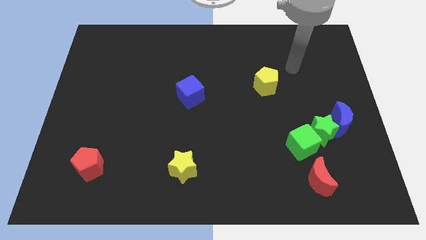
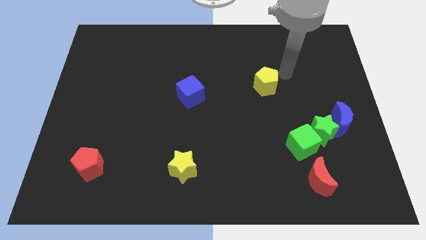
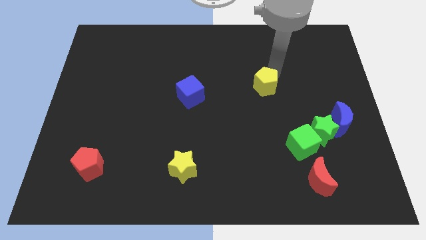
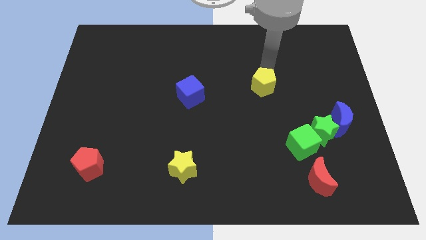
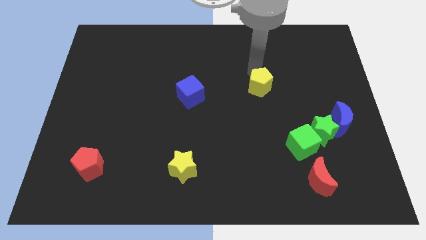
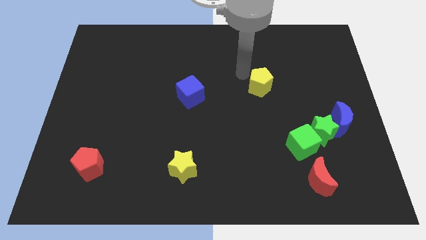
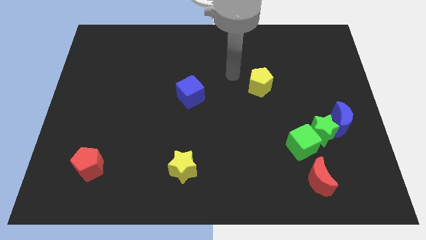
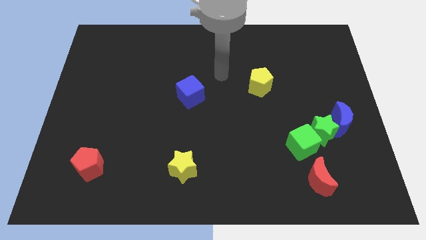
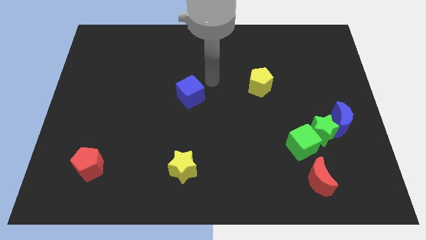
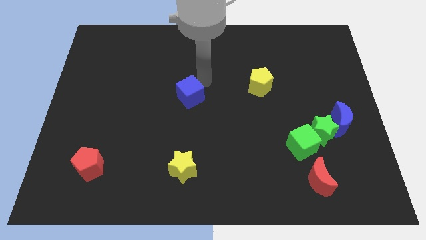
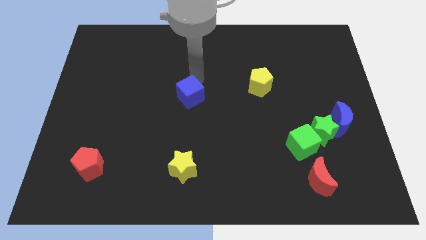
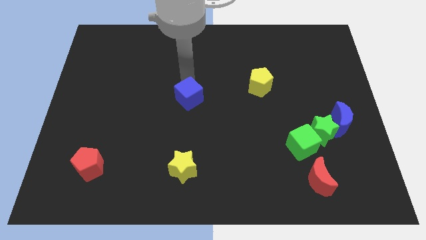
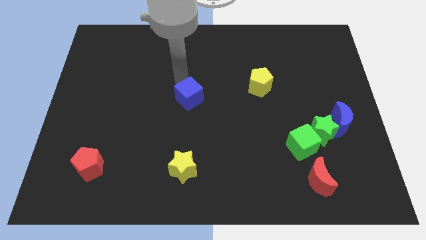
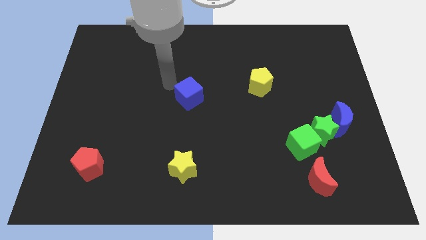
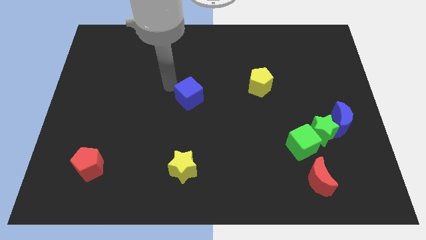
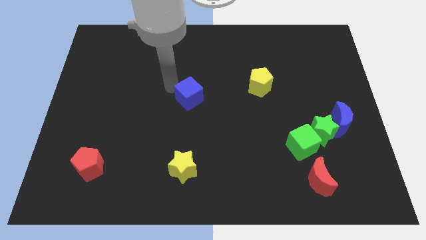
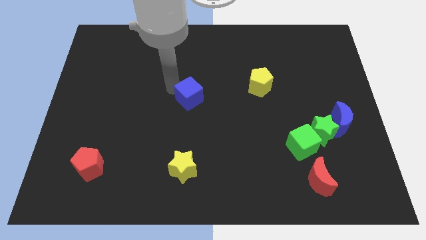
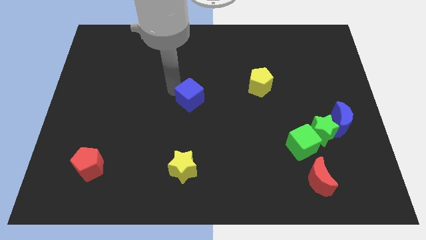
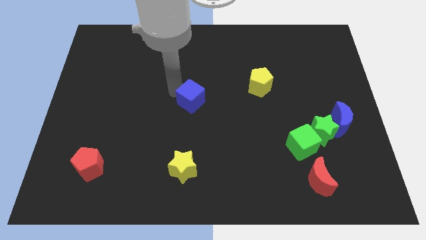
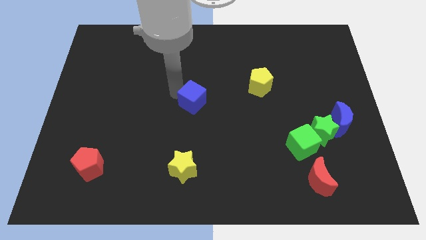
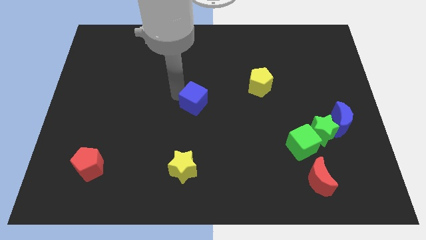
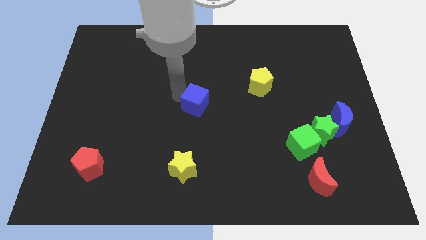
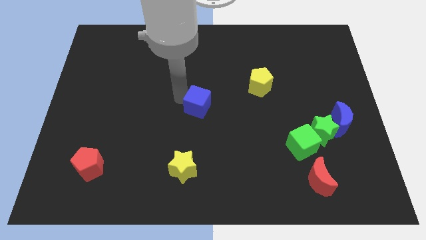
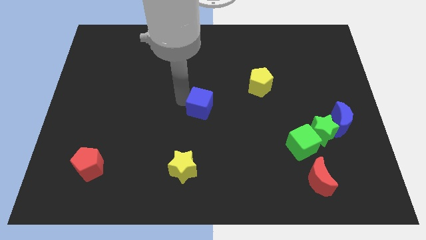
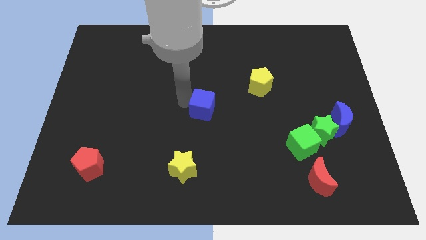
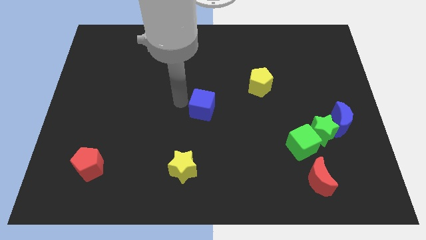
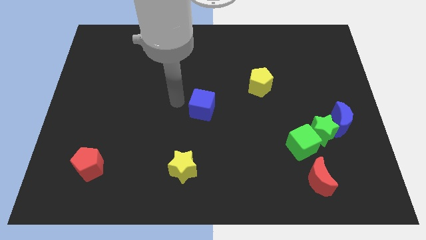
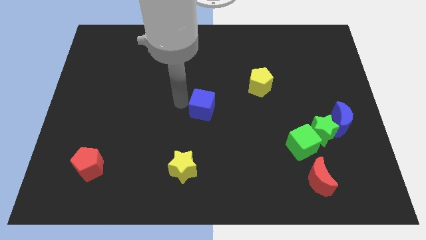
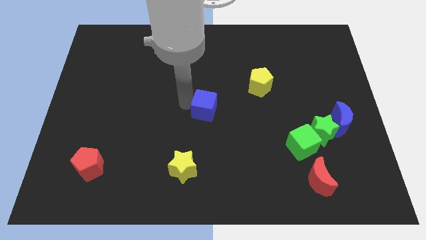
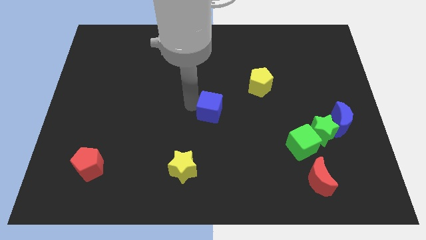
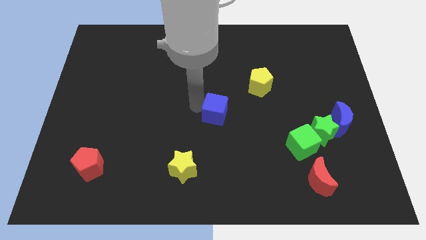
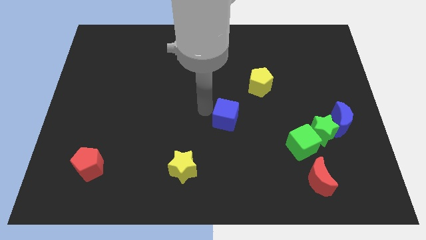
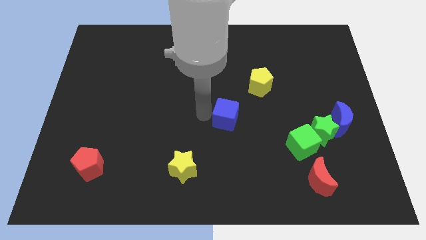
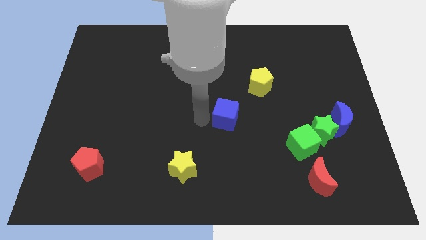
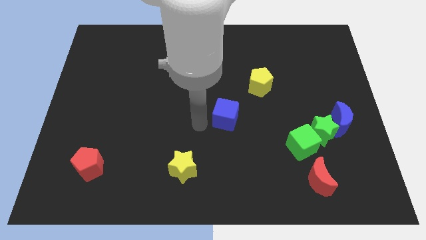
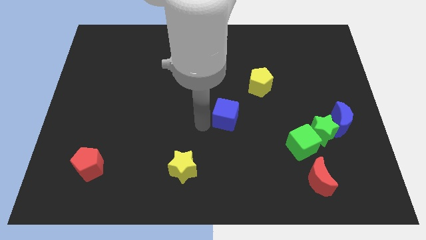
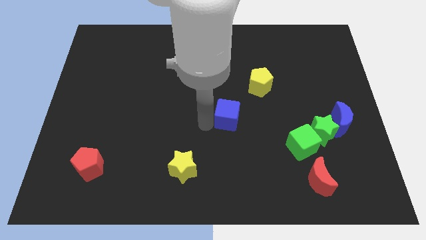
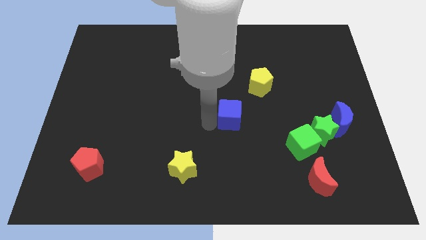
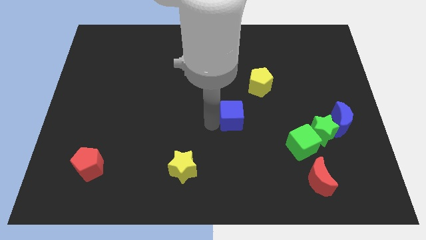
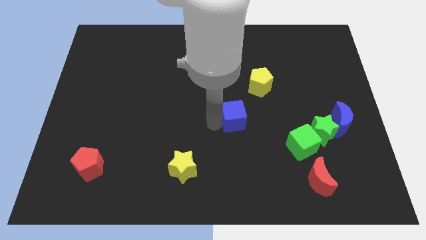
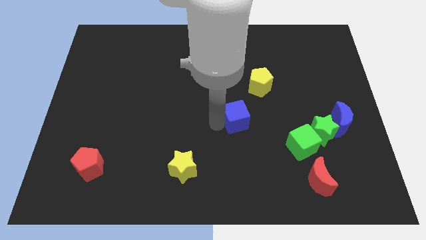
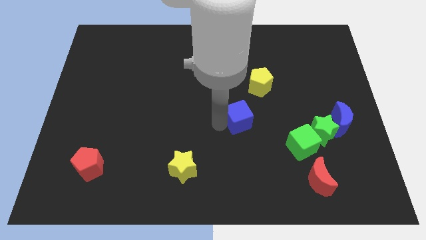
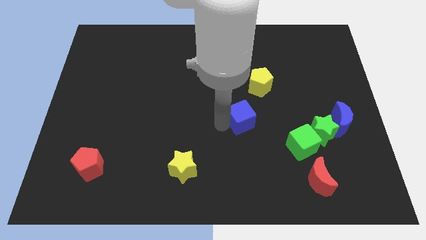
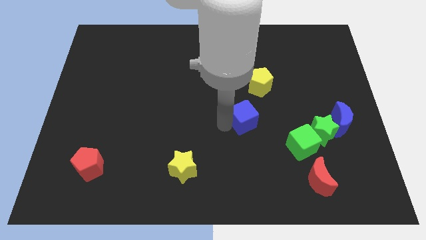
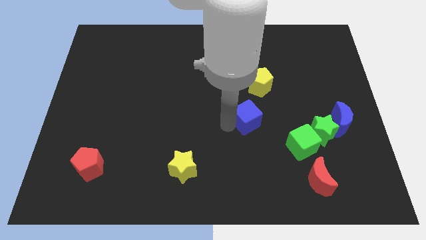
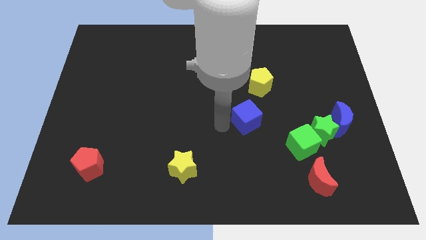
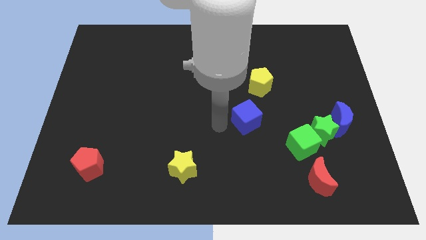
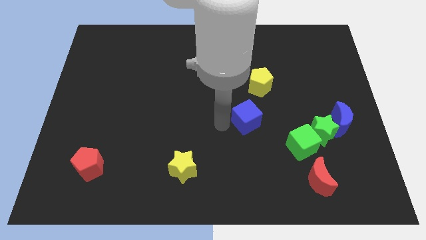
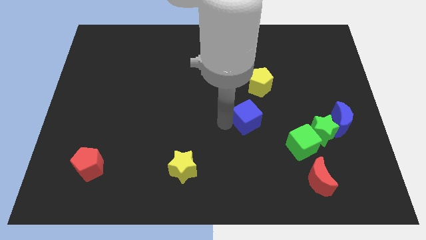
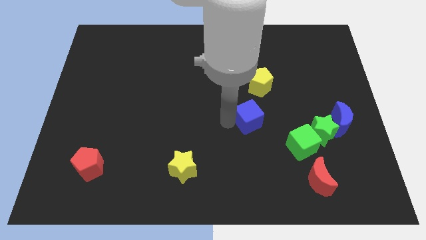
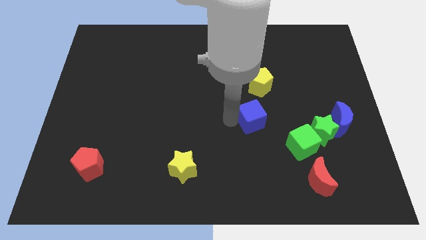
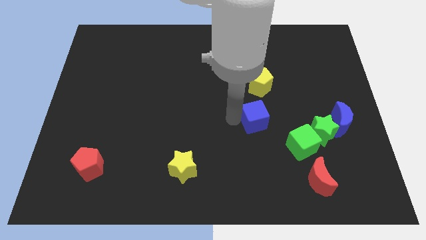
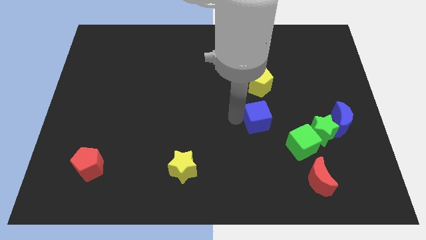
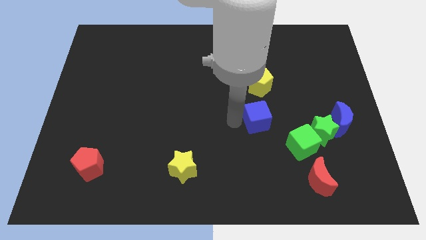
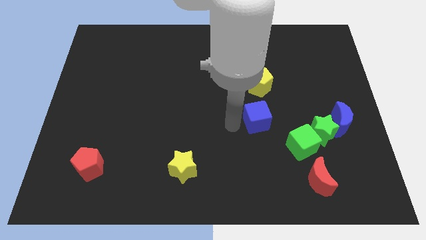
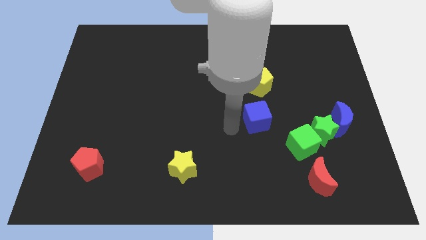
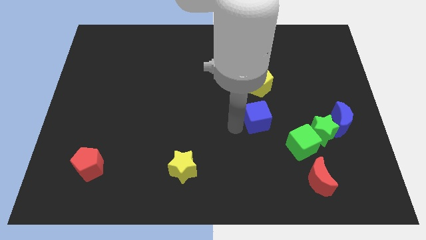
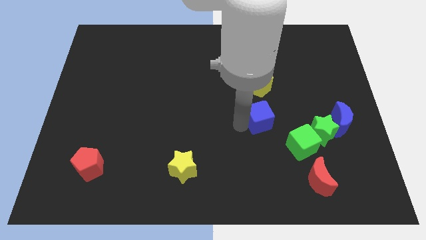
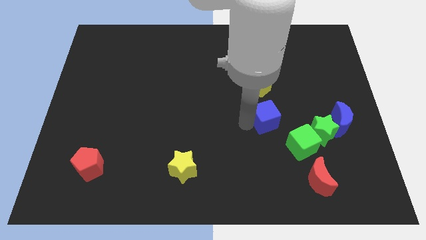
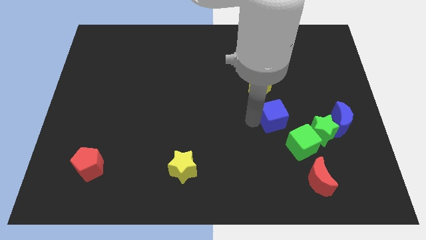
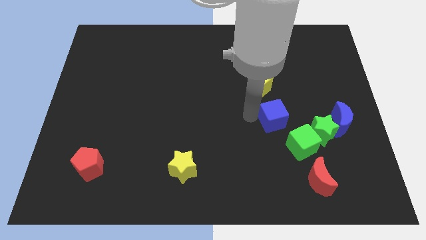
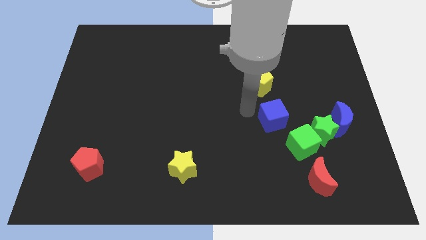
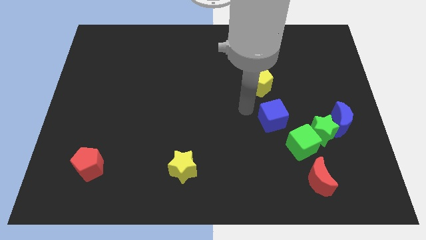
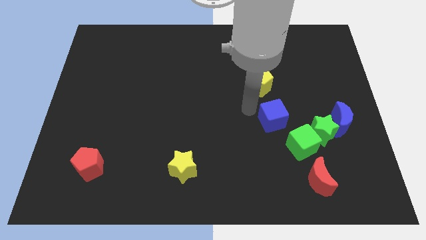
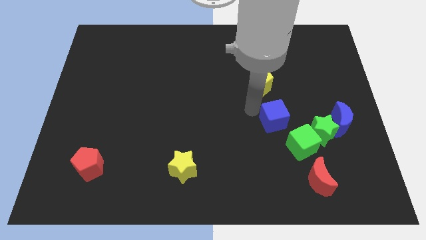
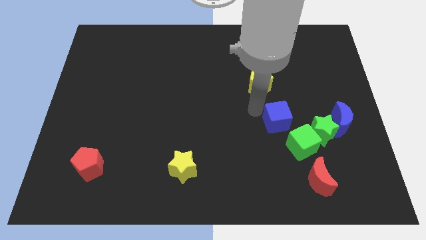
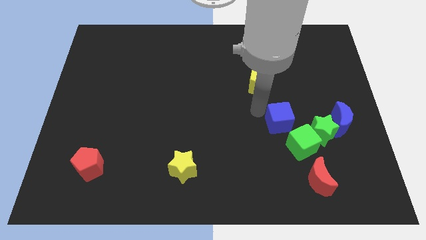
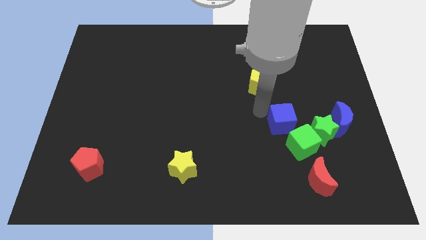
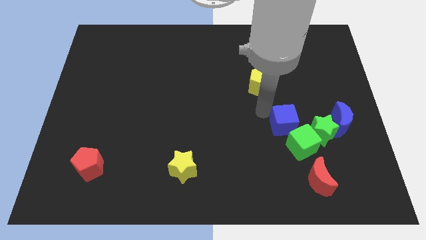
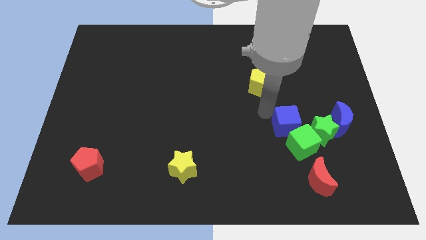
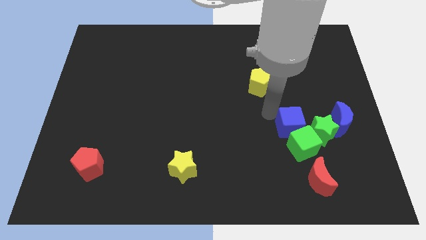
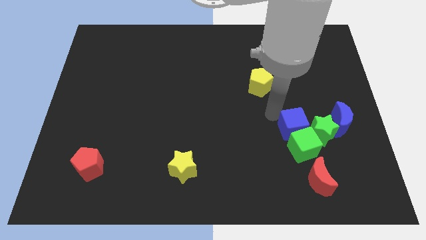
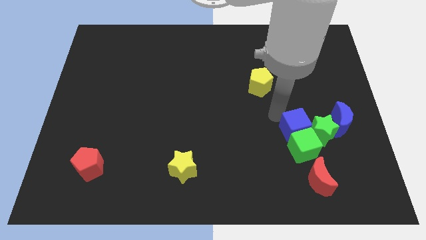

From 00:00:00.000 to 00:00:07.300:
move the blue cube towards the green star
